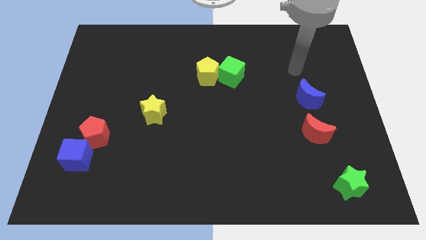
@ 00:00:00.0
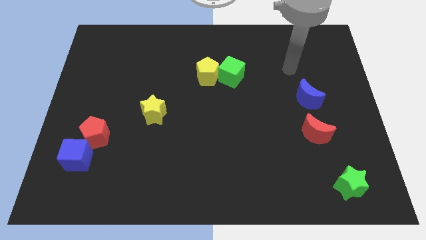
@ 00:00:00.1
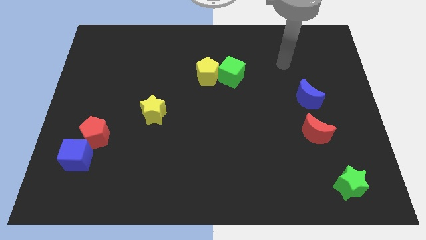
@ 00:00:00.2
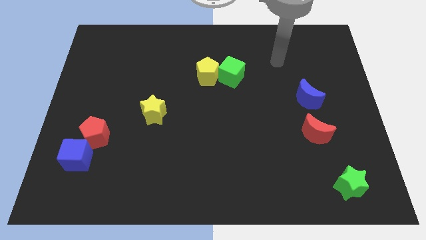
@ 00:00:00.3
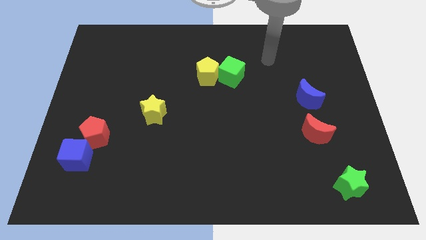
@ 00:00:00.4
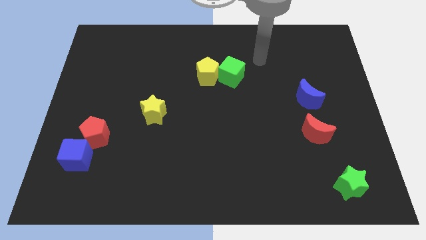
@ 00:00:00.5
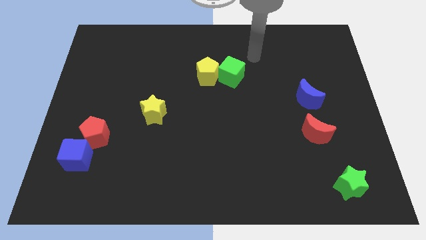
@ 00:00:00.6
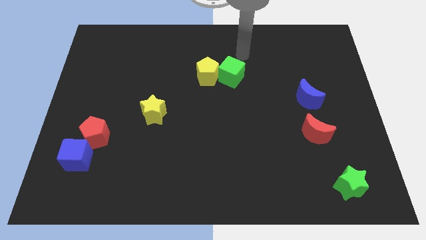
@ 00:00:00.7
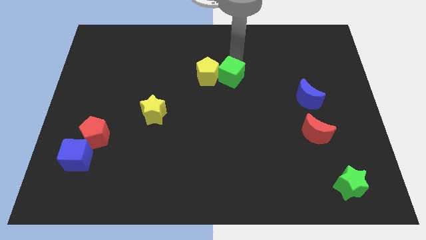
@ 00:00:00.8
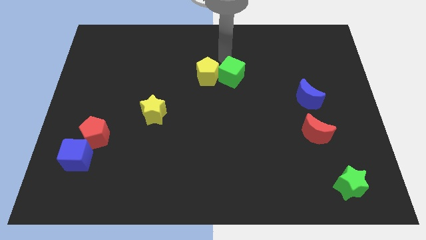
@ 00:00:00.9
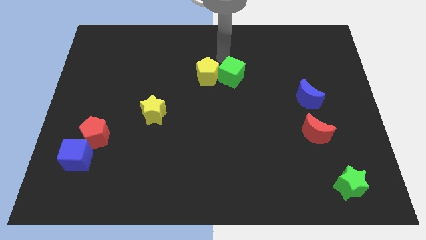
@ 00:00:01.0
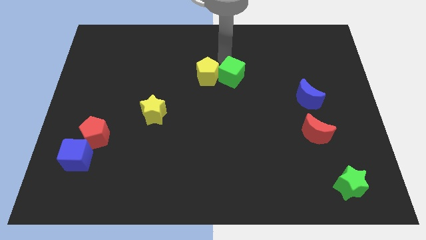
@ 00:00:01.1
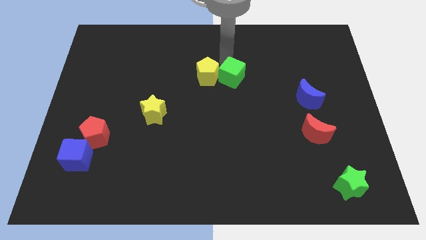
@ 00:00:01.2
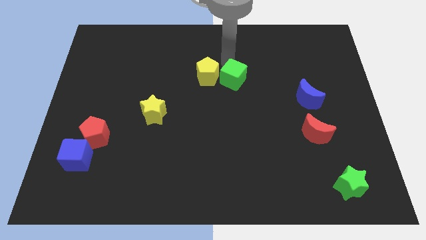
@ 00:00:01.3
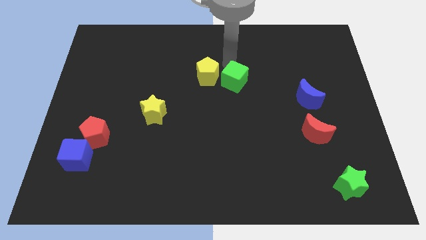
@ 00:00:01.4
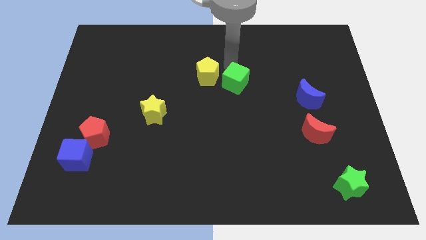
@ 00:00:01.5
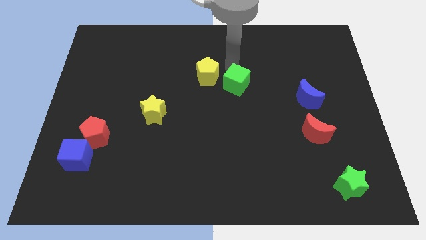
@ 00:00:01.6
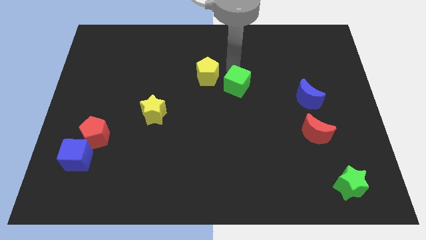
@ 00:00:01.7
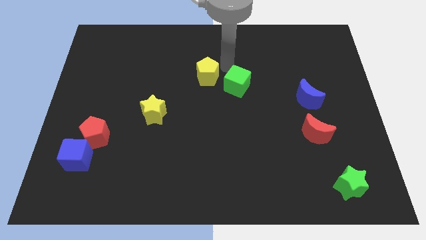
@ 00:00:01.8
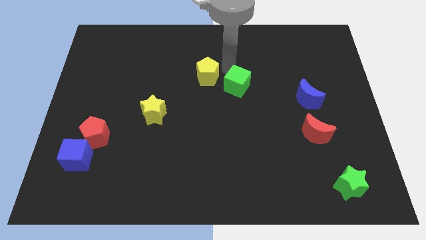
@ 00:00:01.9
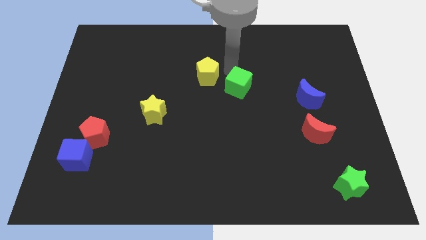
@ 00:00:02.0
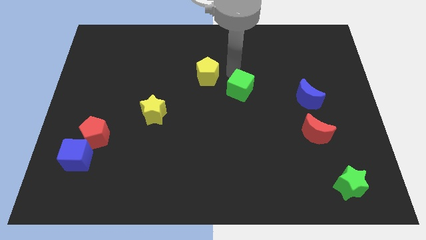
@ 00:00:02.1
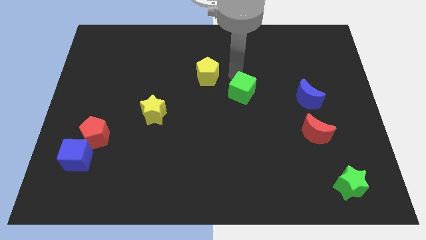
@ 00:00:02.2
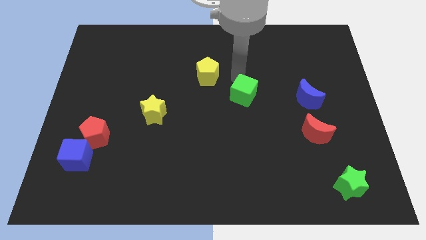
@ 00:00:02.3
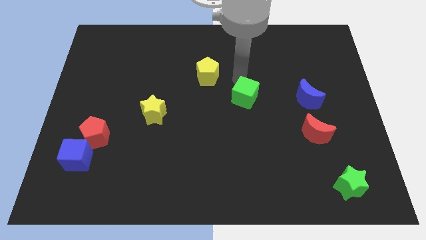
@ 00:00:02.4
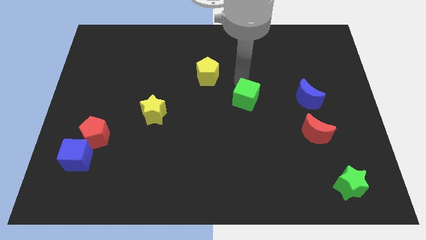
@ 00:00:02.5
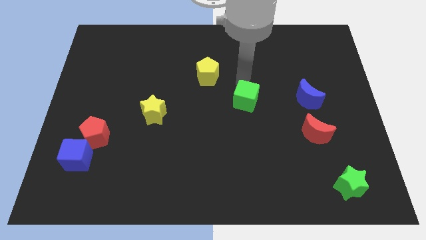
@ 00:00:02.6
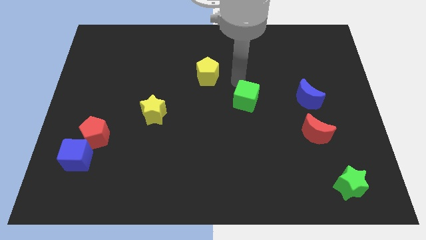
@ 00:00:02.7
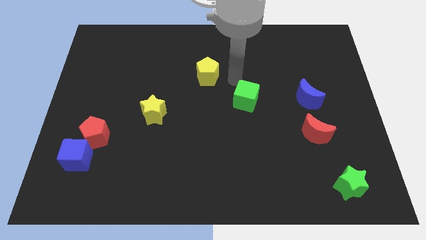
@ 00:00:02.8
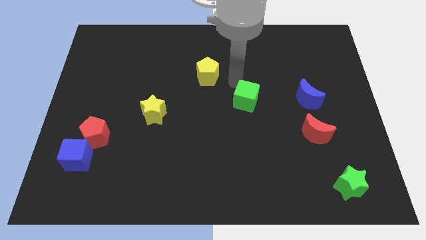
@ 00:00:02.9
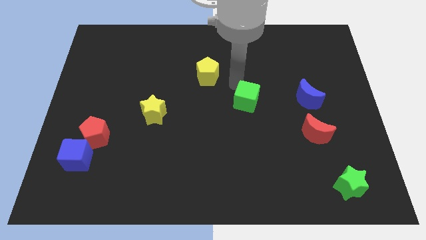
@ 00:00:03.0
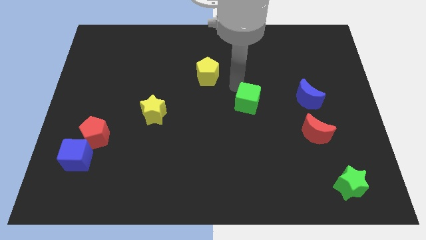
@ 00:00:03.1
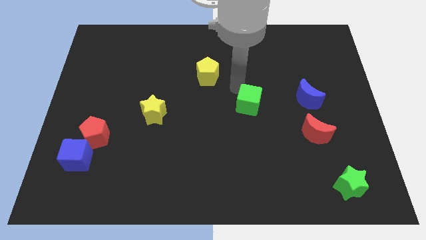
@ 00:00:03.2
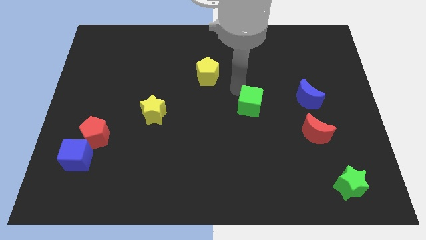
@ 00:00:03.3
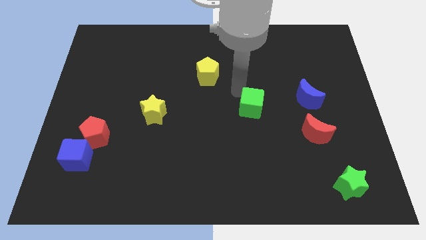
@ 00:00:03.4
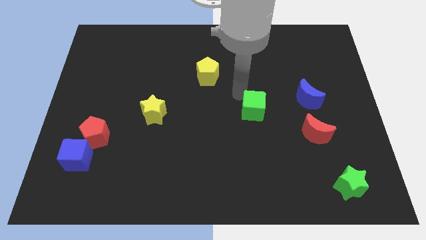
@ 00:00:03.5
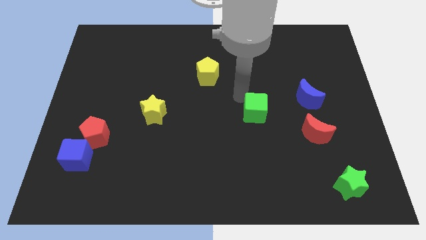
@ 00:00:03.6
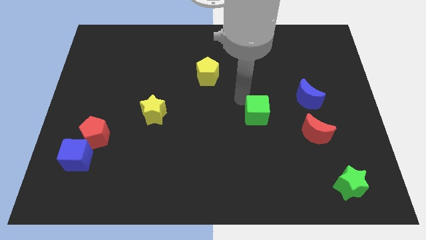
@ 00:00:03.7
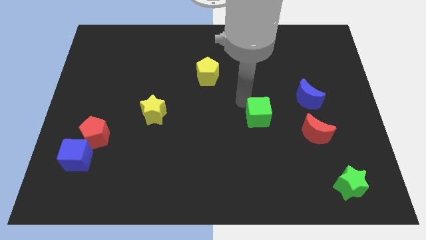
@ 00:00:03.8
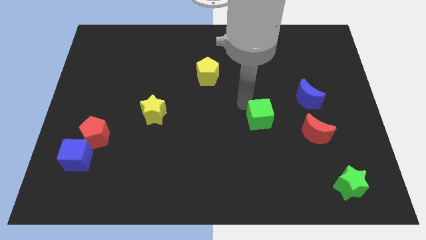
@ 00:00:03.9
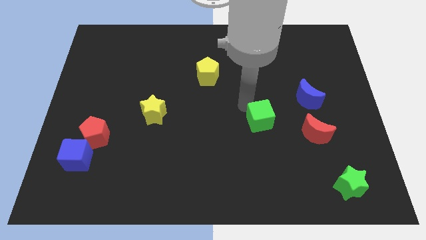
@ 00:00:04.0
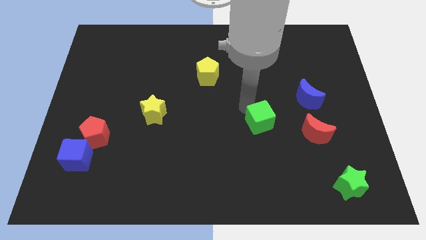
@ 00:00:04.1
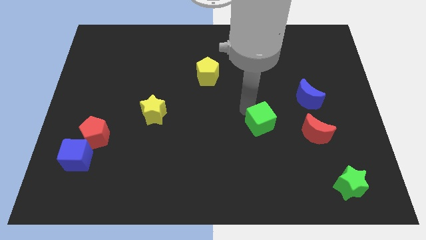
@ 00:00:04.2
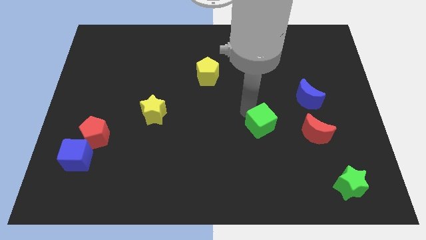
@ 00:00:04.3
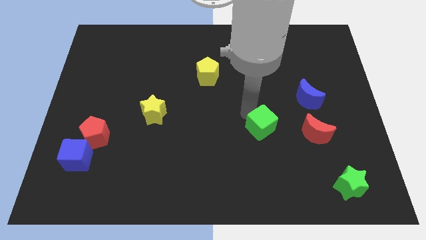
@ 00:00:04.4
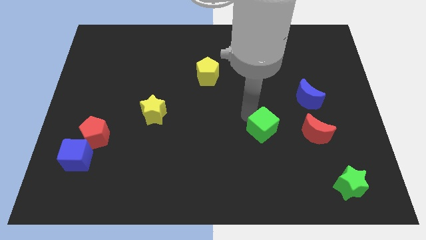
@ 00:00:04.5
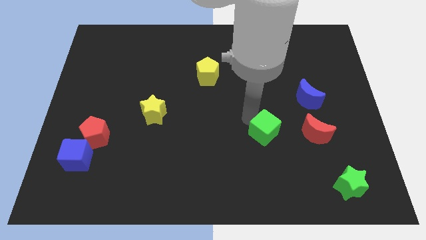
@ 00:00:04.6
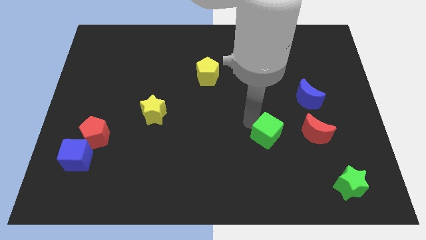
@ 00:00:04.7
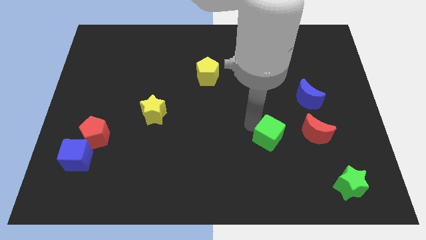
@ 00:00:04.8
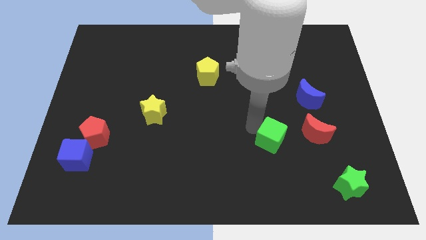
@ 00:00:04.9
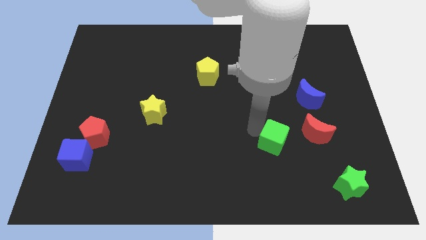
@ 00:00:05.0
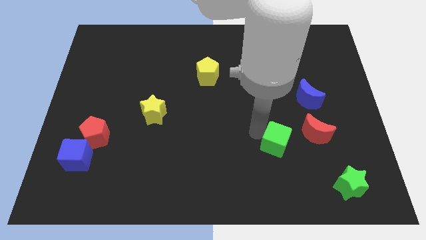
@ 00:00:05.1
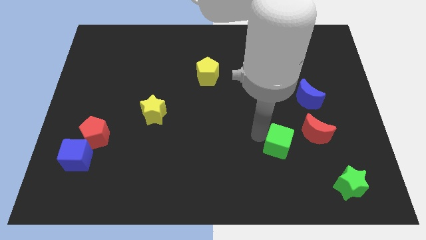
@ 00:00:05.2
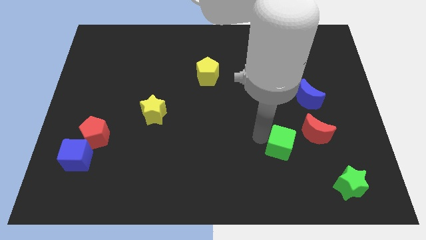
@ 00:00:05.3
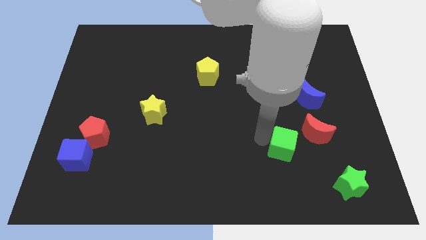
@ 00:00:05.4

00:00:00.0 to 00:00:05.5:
move the green cube downwards and right

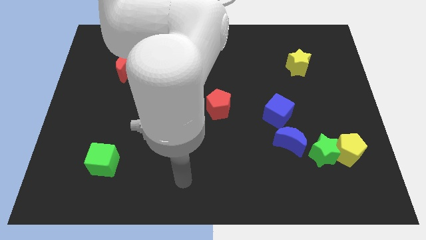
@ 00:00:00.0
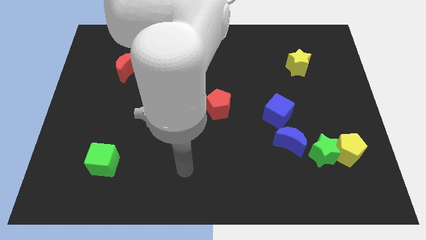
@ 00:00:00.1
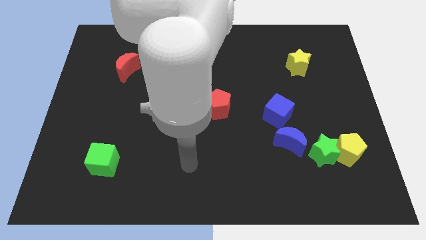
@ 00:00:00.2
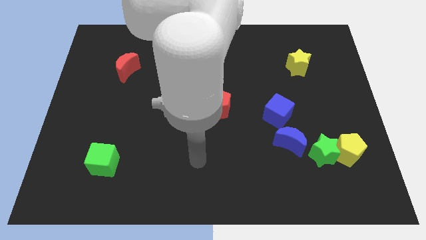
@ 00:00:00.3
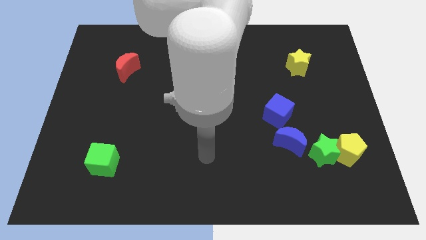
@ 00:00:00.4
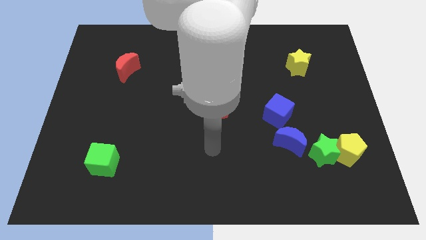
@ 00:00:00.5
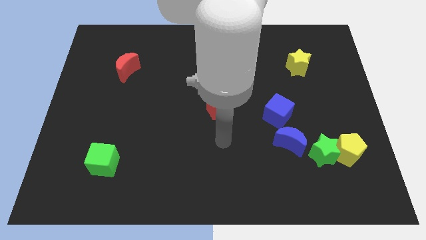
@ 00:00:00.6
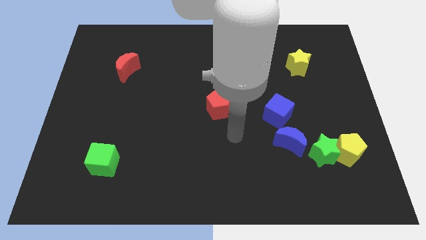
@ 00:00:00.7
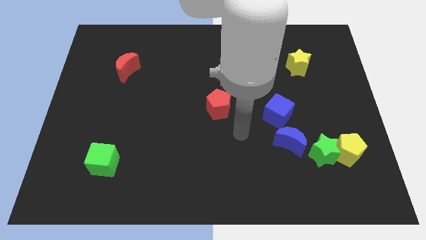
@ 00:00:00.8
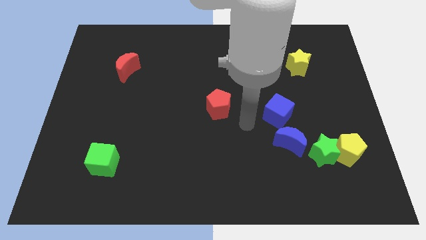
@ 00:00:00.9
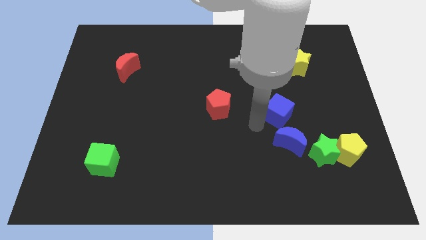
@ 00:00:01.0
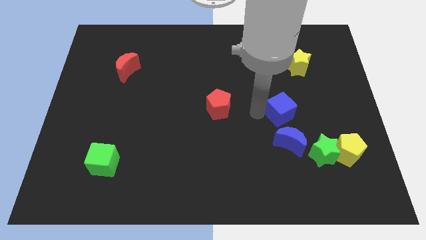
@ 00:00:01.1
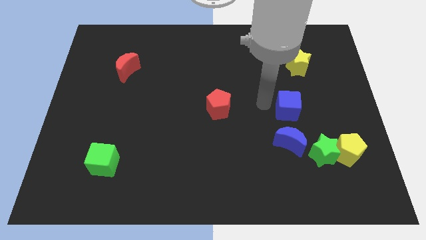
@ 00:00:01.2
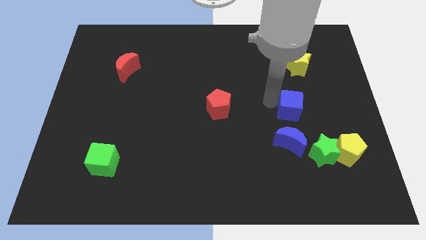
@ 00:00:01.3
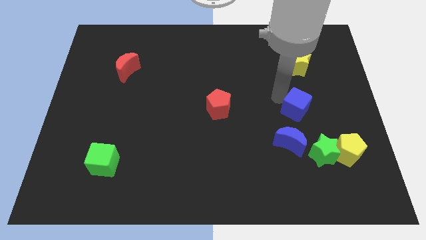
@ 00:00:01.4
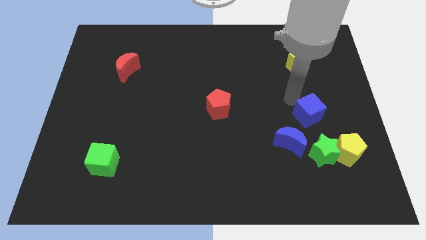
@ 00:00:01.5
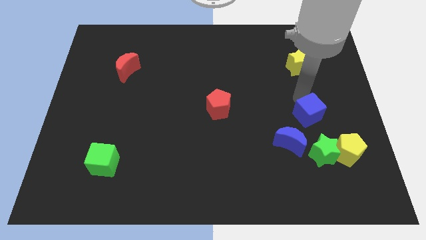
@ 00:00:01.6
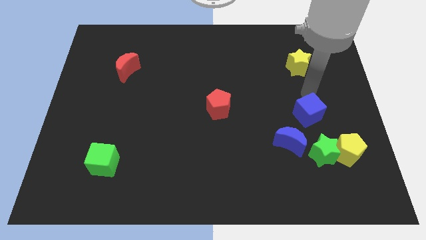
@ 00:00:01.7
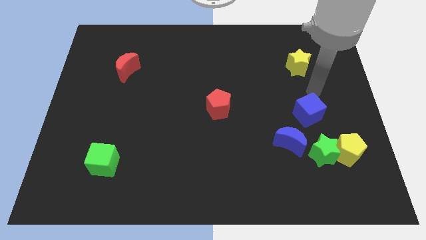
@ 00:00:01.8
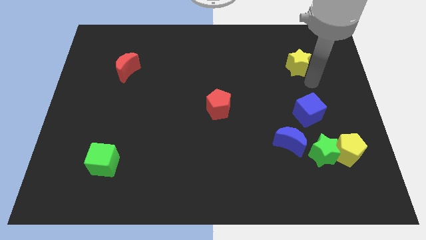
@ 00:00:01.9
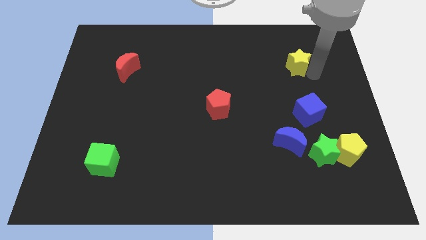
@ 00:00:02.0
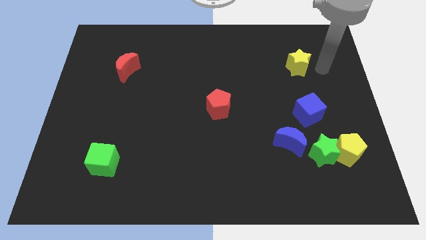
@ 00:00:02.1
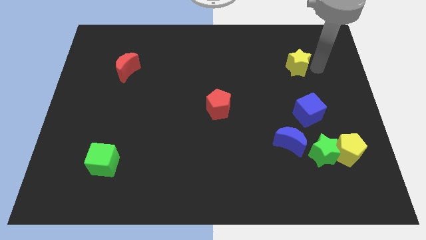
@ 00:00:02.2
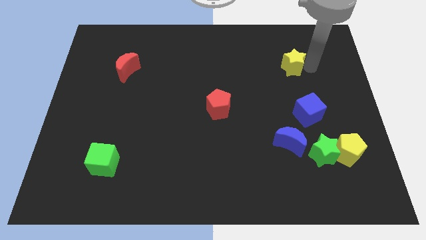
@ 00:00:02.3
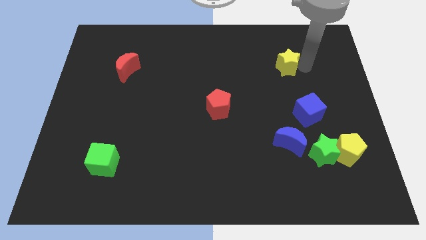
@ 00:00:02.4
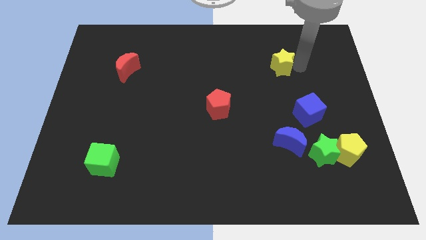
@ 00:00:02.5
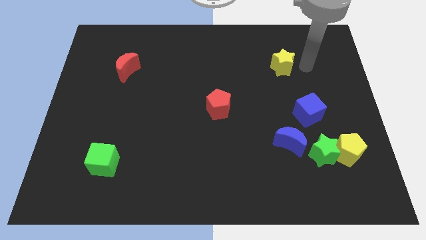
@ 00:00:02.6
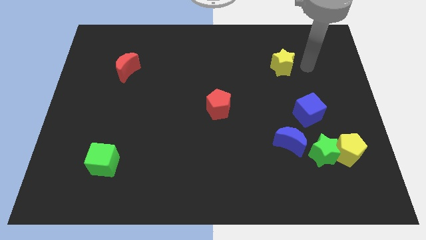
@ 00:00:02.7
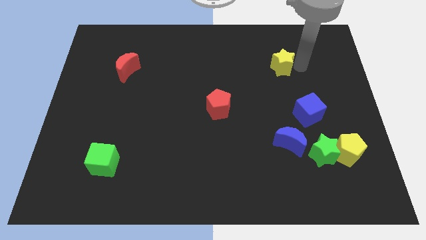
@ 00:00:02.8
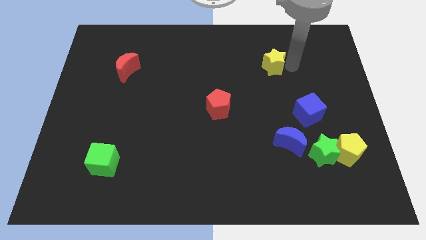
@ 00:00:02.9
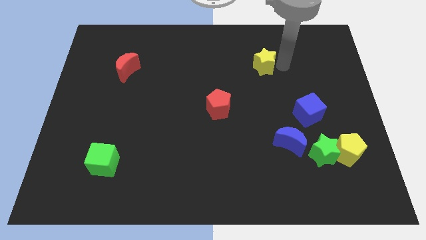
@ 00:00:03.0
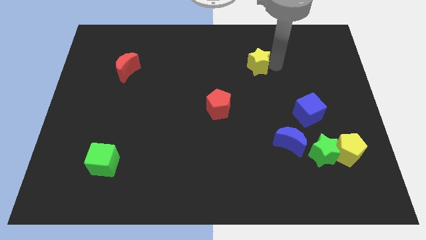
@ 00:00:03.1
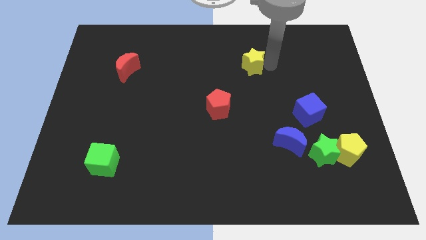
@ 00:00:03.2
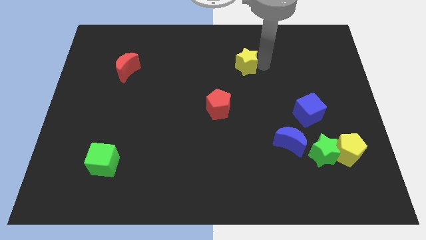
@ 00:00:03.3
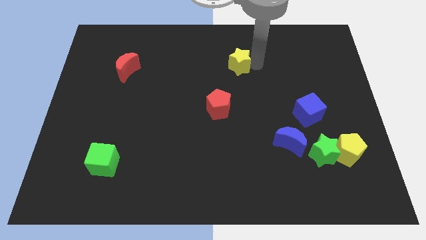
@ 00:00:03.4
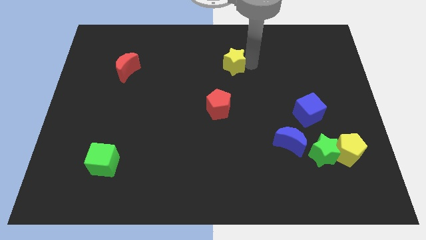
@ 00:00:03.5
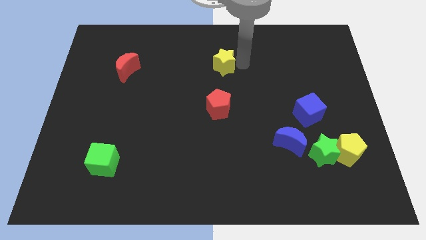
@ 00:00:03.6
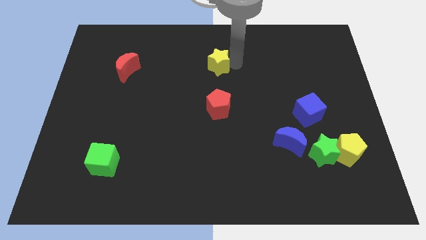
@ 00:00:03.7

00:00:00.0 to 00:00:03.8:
slide the yellow star to the left
